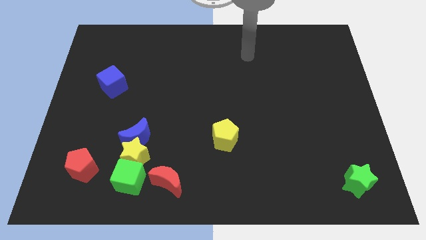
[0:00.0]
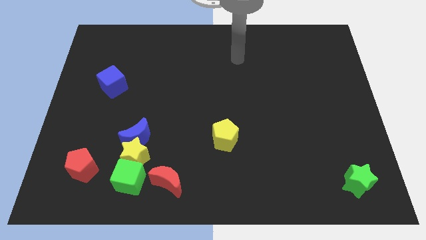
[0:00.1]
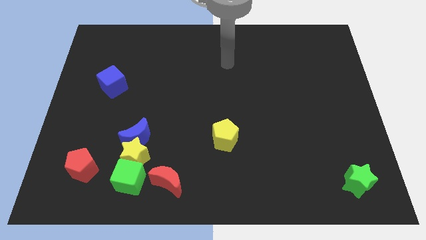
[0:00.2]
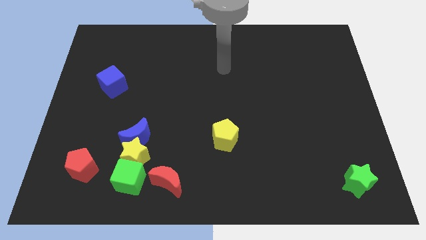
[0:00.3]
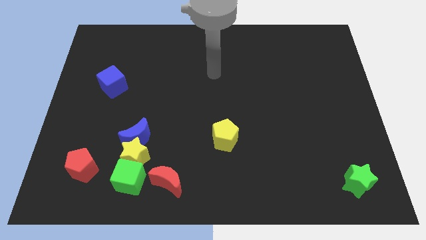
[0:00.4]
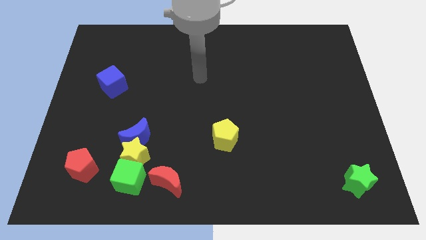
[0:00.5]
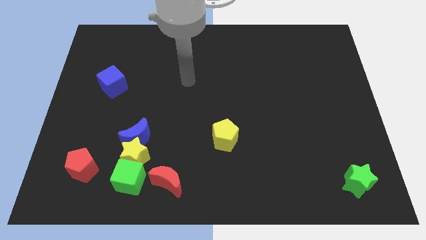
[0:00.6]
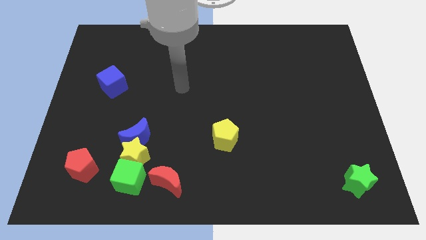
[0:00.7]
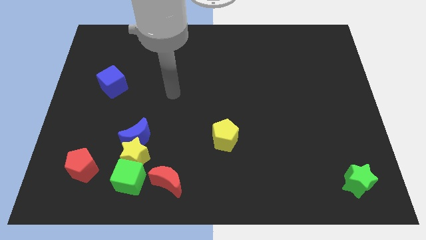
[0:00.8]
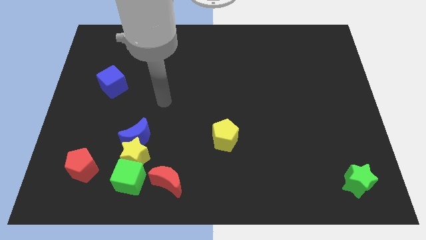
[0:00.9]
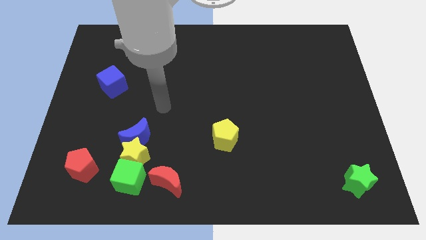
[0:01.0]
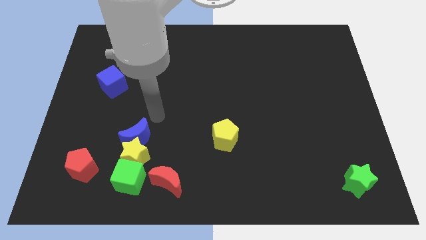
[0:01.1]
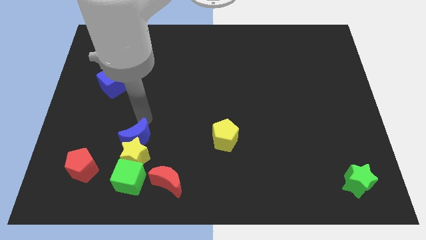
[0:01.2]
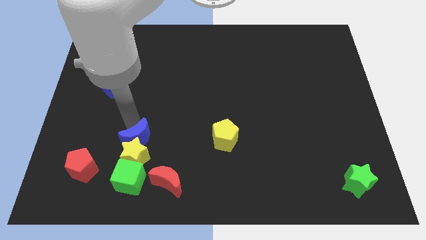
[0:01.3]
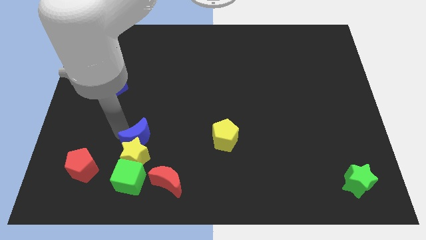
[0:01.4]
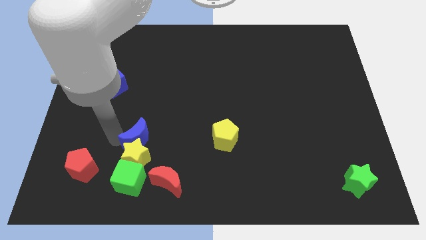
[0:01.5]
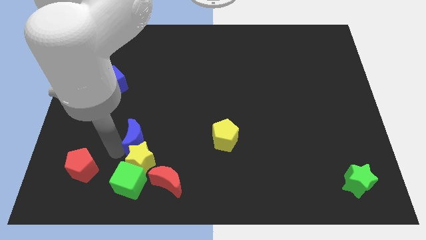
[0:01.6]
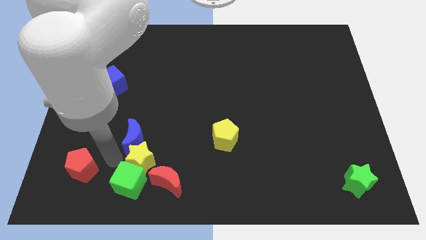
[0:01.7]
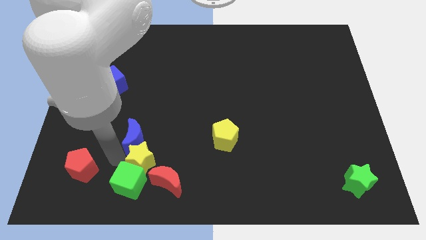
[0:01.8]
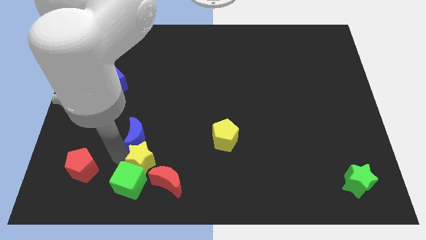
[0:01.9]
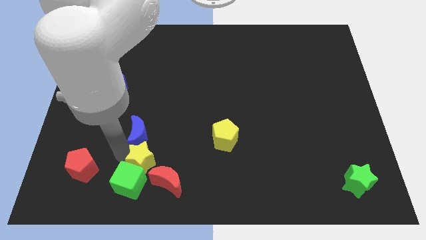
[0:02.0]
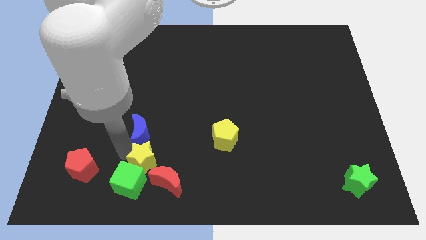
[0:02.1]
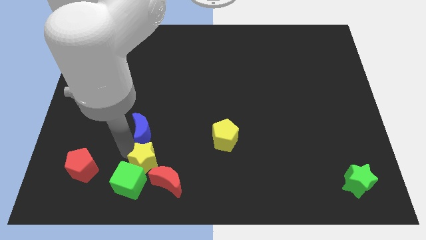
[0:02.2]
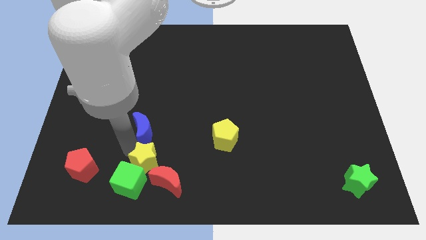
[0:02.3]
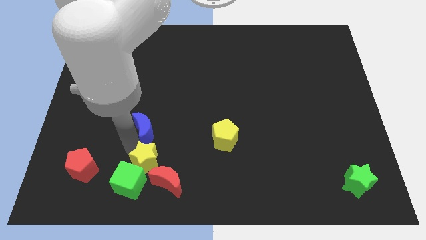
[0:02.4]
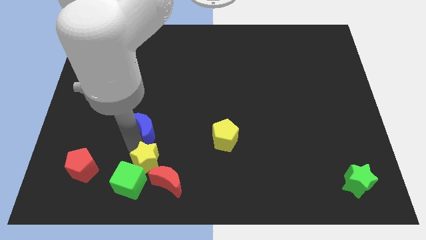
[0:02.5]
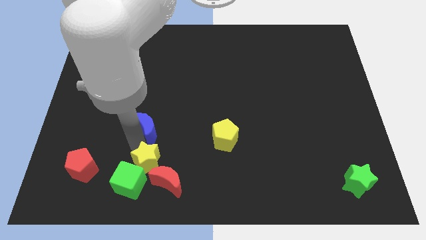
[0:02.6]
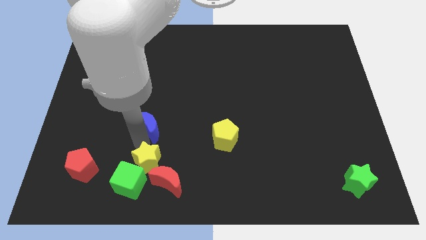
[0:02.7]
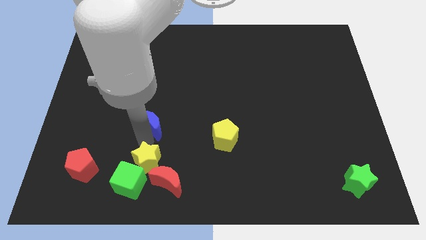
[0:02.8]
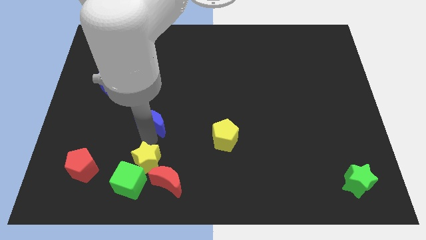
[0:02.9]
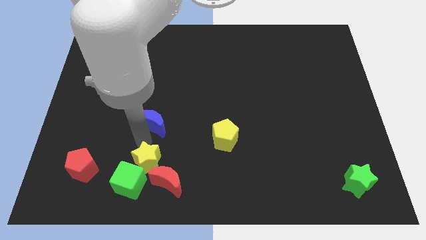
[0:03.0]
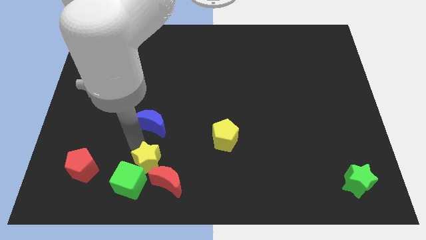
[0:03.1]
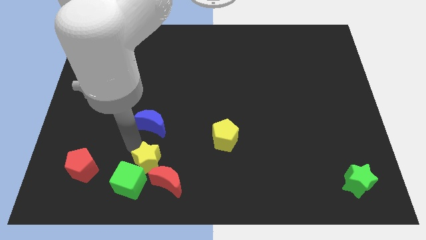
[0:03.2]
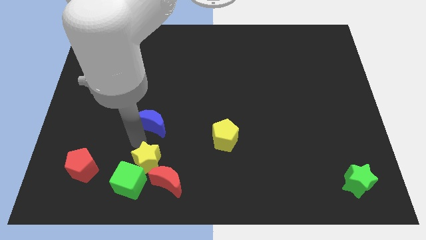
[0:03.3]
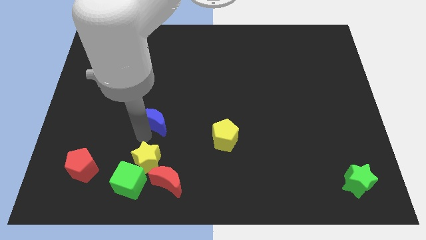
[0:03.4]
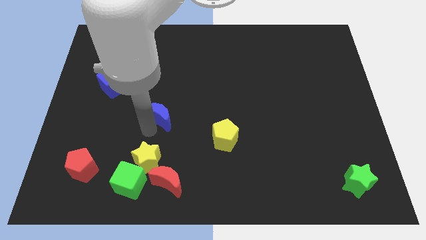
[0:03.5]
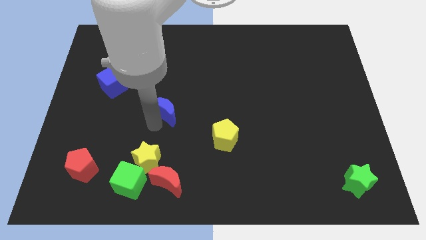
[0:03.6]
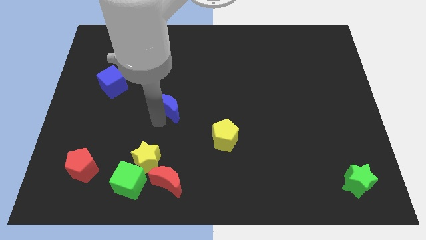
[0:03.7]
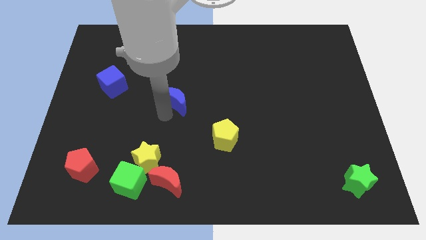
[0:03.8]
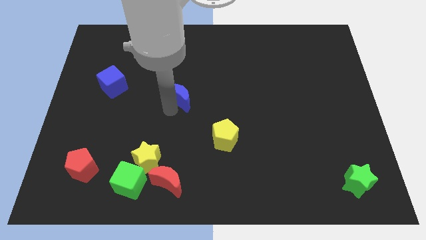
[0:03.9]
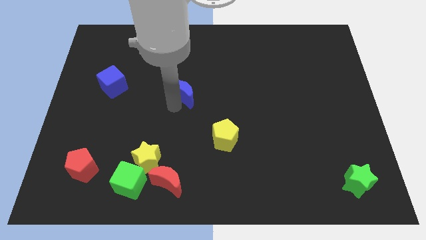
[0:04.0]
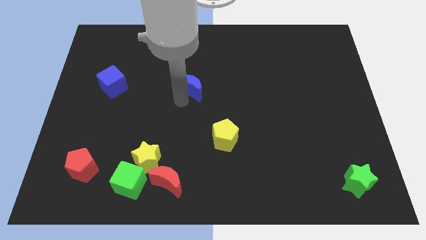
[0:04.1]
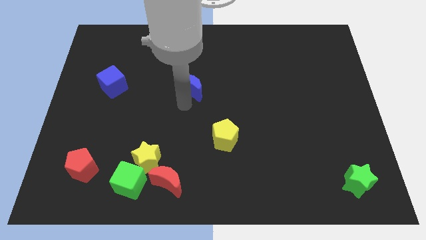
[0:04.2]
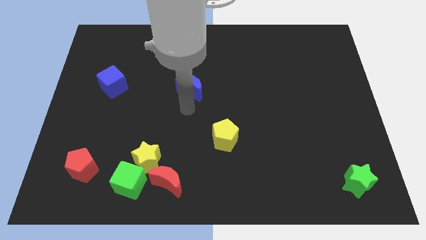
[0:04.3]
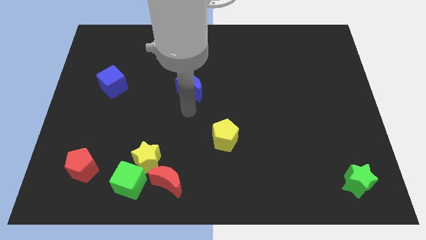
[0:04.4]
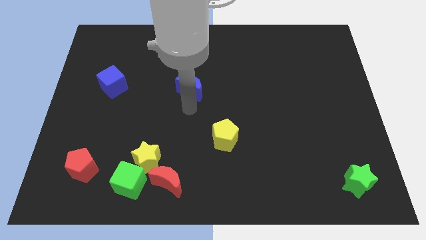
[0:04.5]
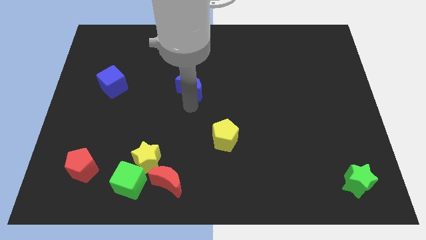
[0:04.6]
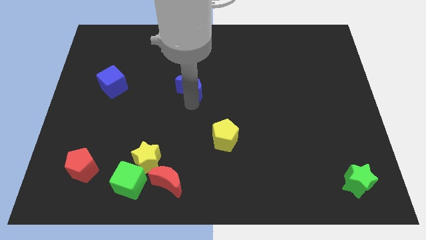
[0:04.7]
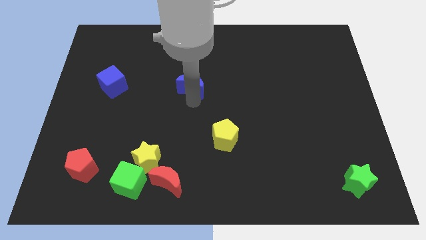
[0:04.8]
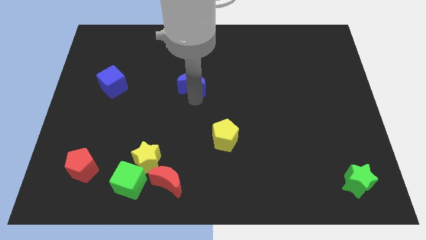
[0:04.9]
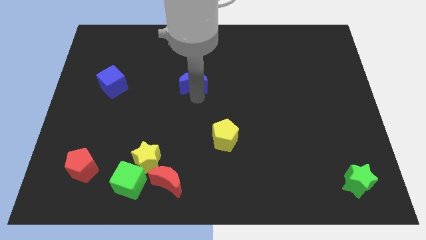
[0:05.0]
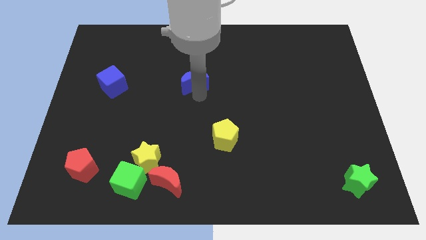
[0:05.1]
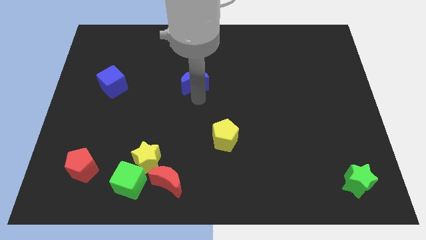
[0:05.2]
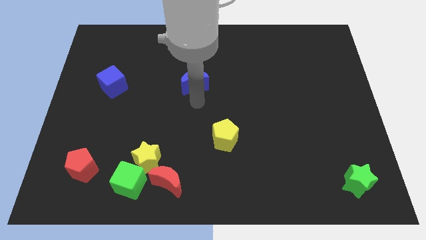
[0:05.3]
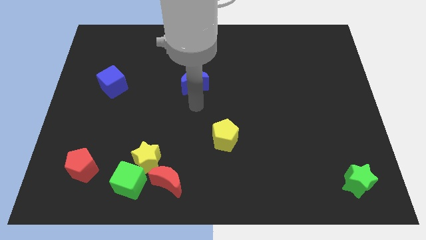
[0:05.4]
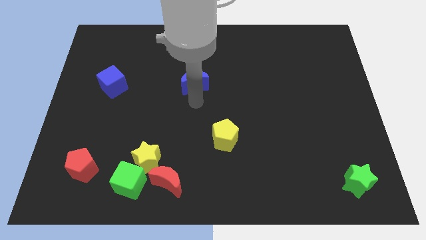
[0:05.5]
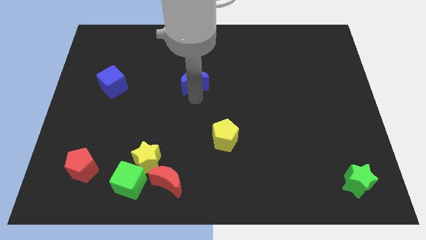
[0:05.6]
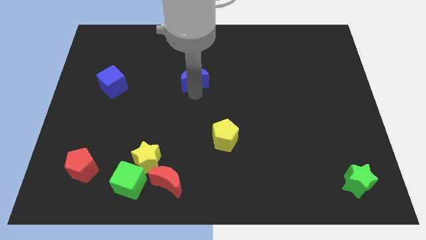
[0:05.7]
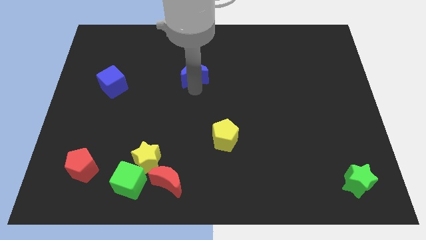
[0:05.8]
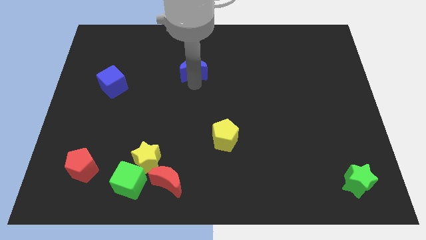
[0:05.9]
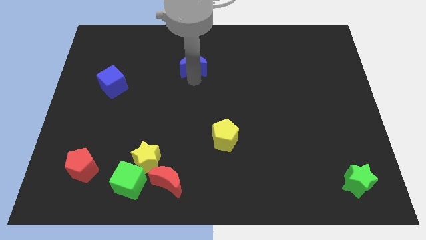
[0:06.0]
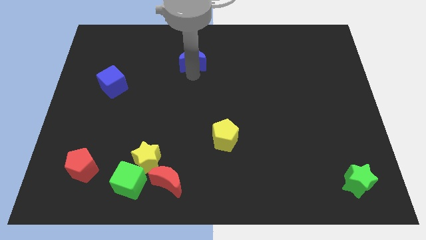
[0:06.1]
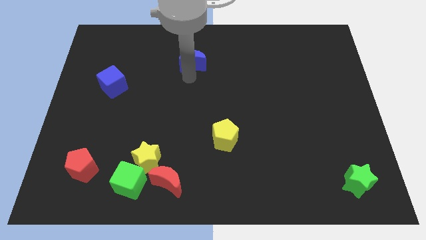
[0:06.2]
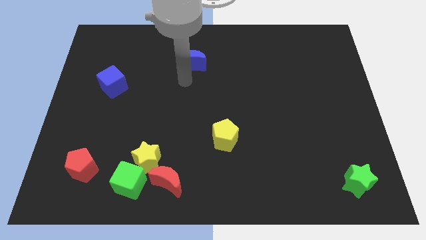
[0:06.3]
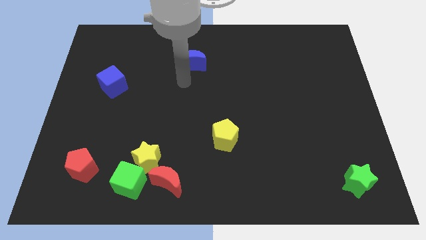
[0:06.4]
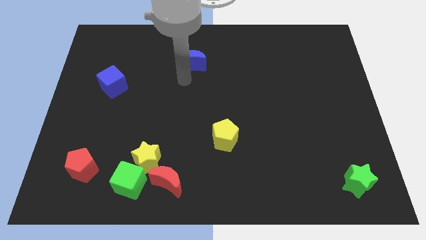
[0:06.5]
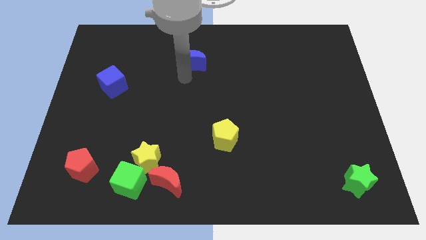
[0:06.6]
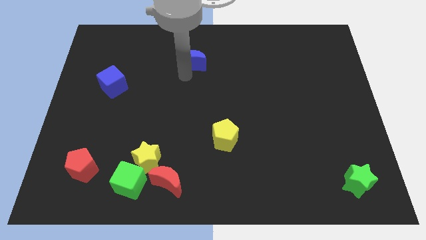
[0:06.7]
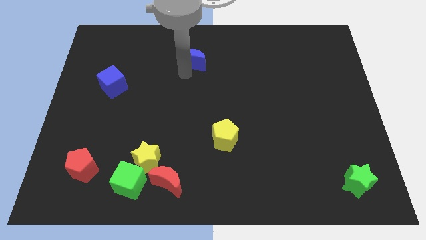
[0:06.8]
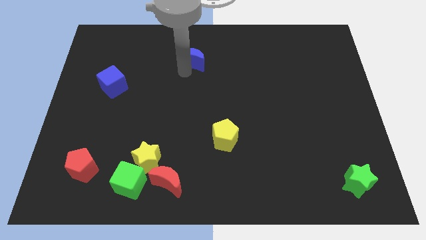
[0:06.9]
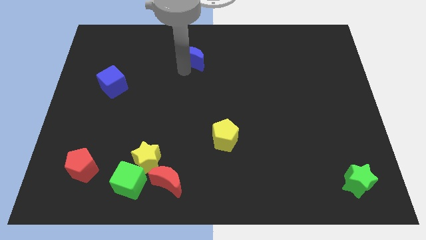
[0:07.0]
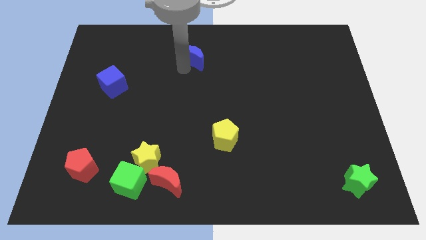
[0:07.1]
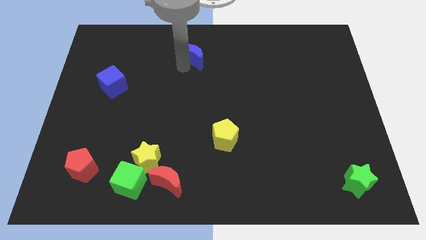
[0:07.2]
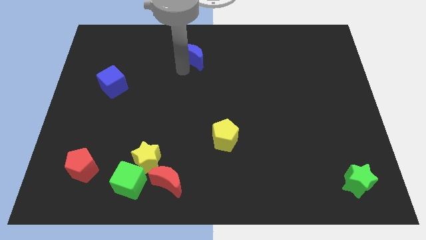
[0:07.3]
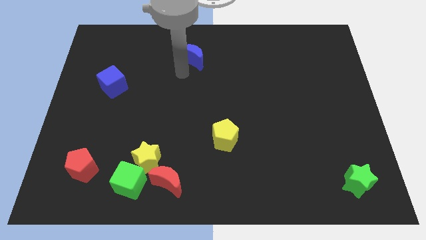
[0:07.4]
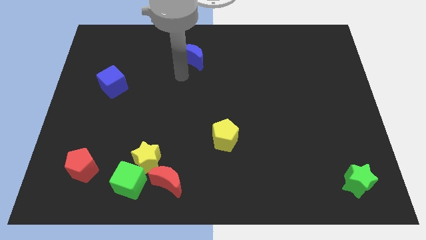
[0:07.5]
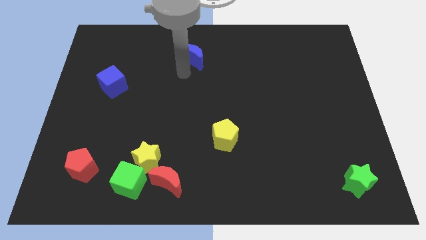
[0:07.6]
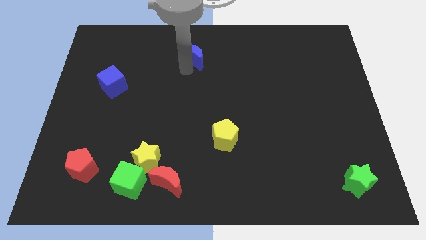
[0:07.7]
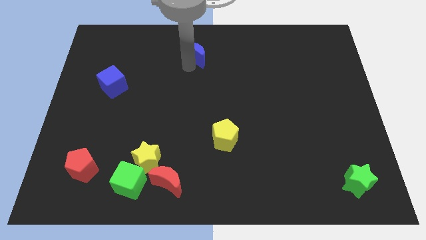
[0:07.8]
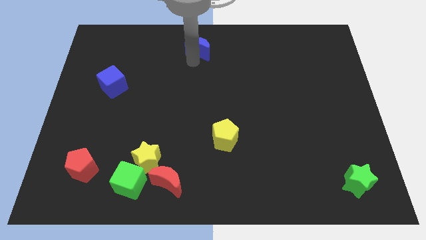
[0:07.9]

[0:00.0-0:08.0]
slide the blue moon to the top
